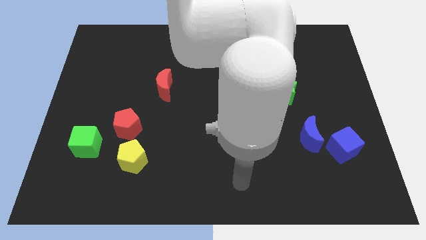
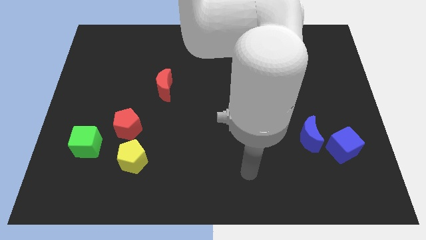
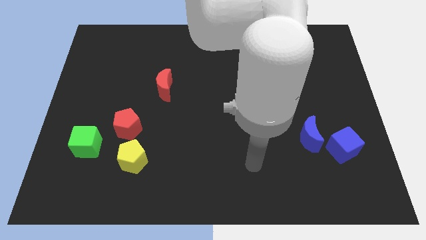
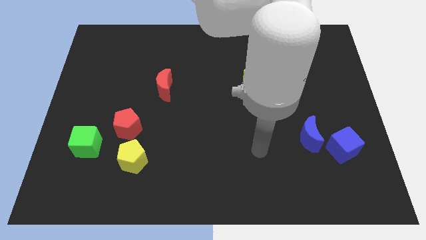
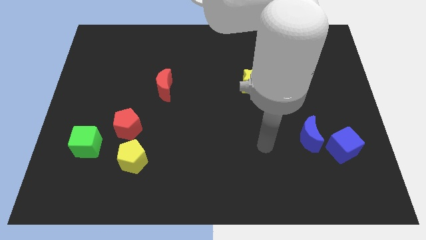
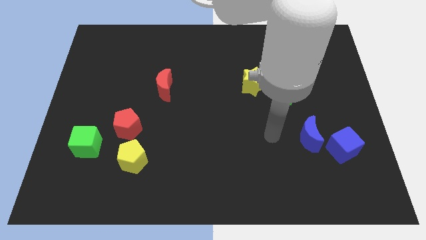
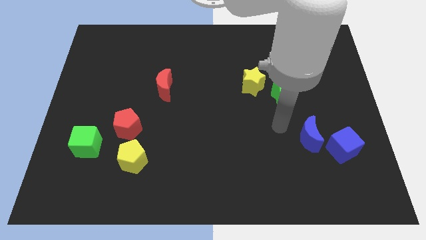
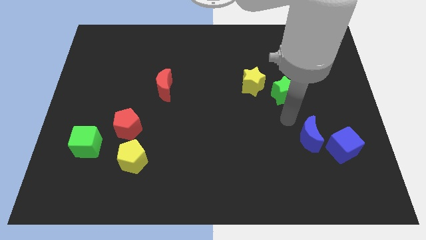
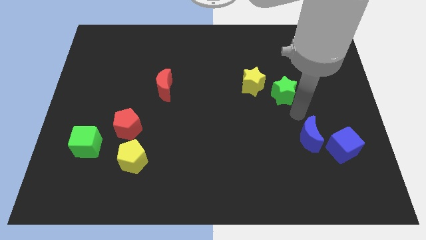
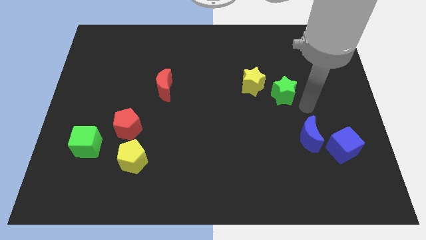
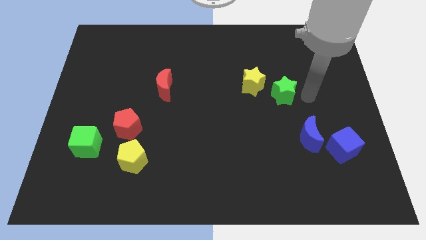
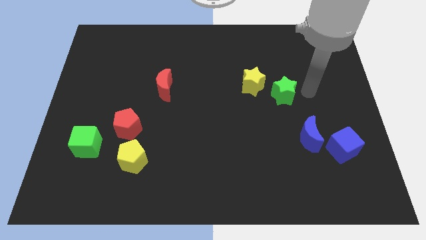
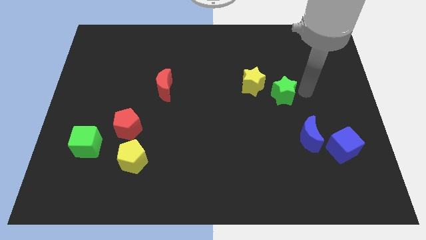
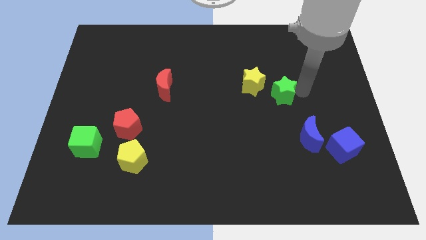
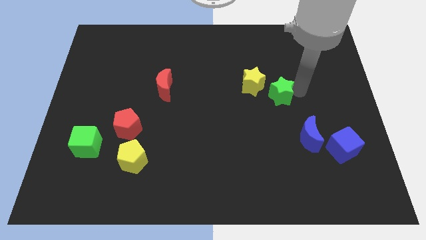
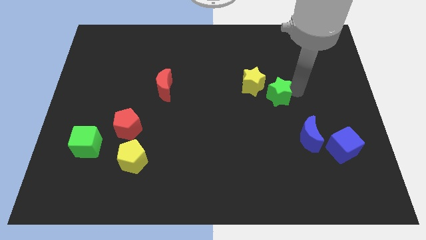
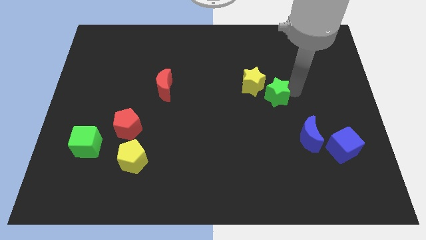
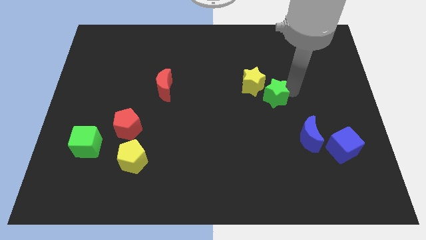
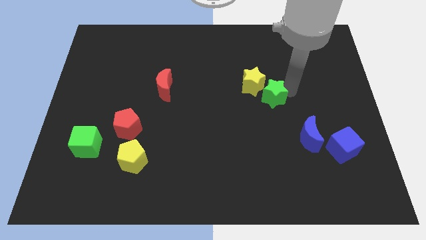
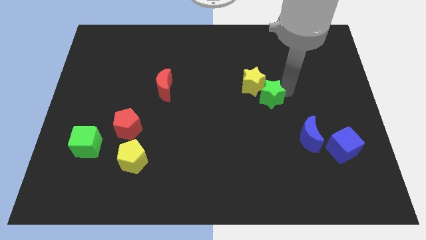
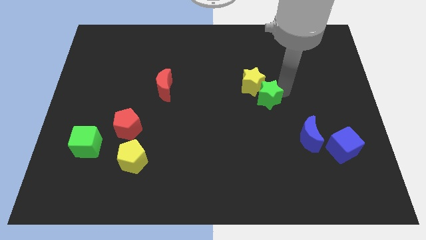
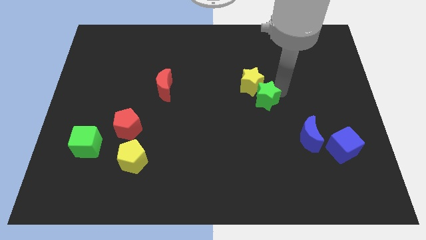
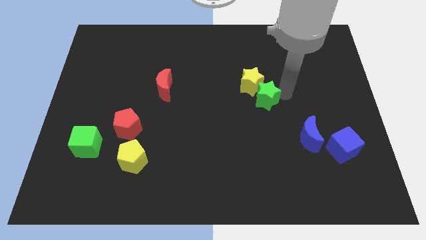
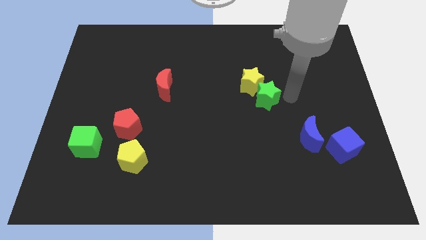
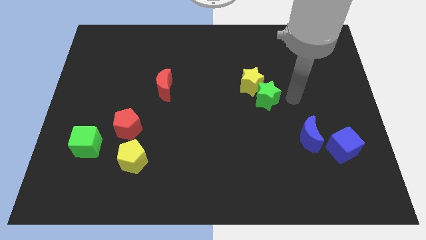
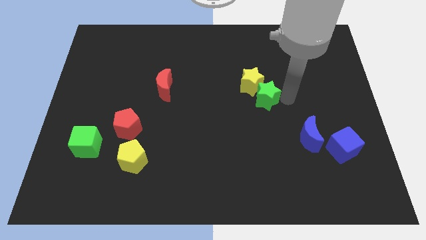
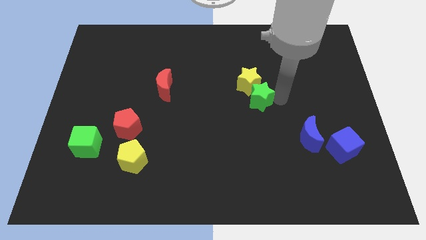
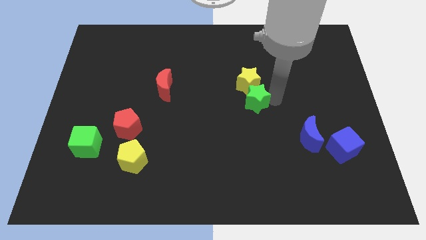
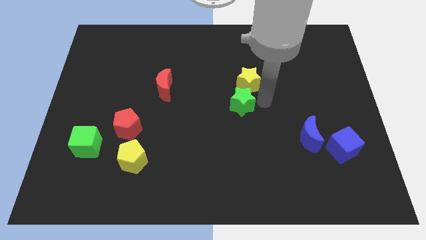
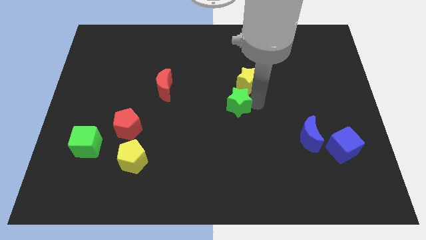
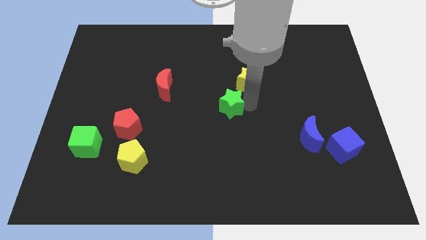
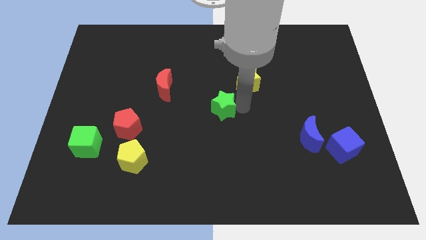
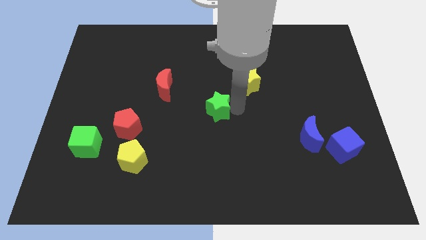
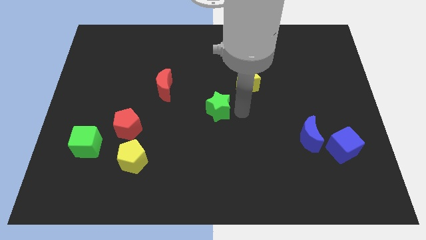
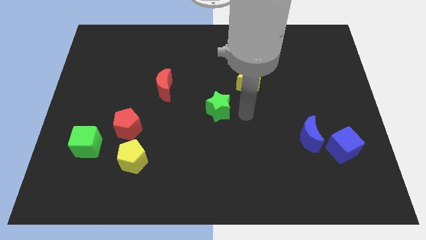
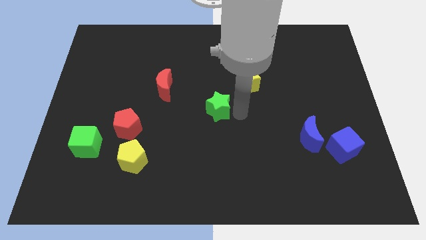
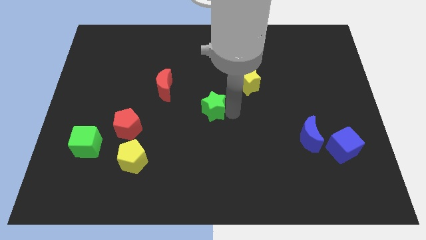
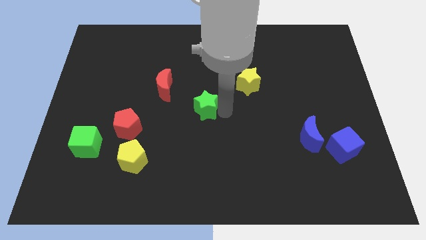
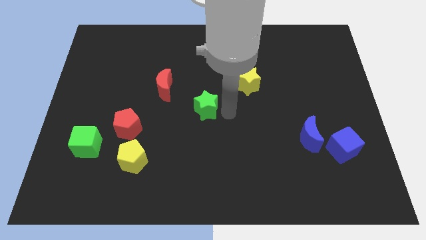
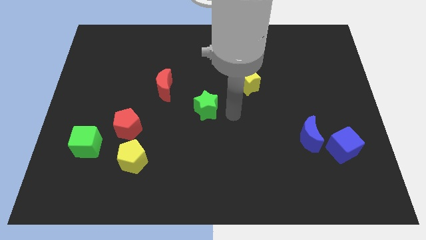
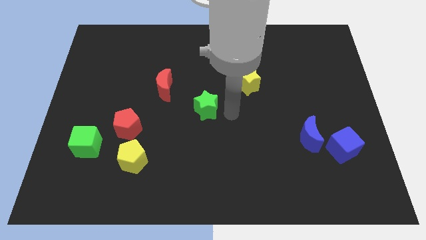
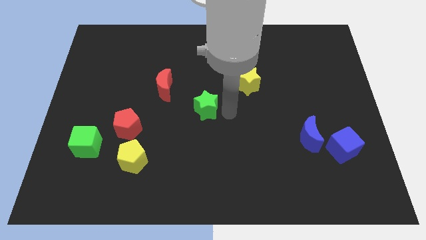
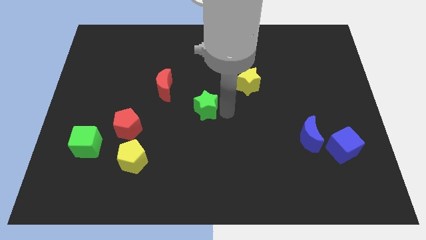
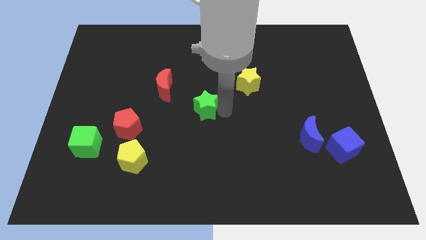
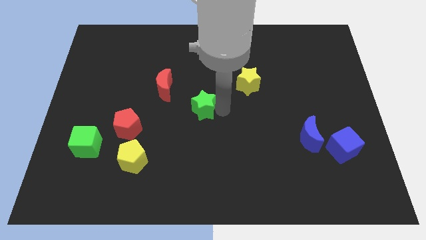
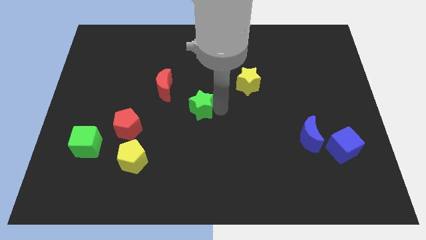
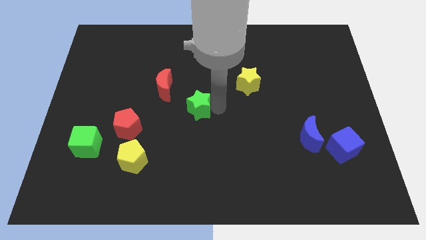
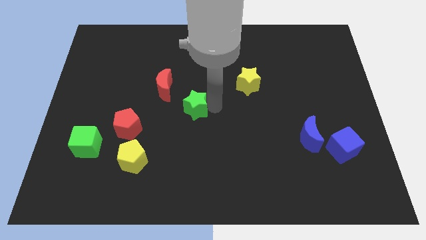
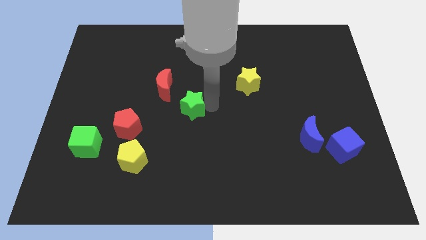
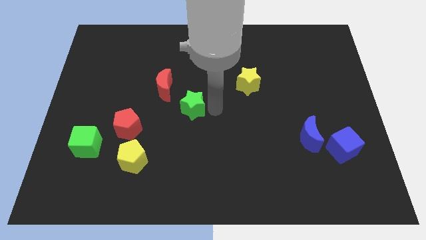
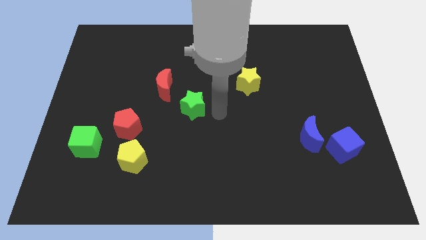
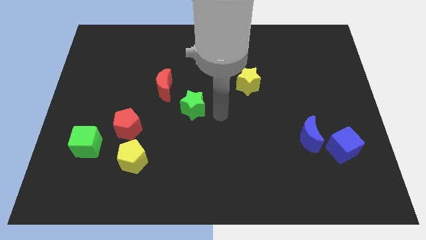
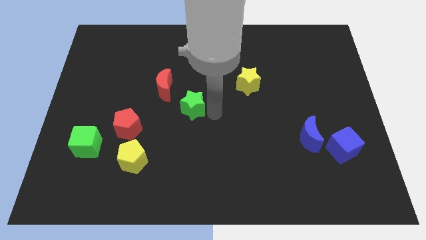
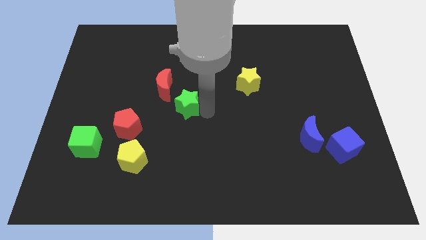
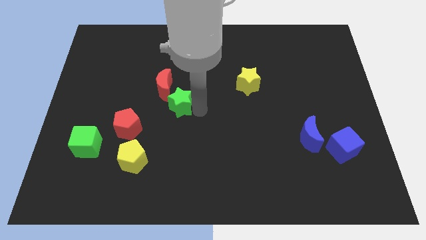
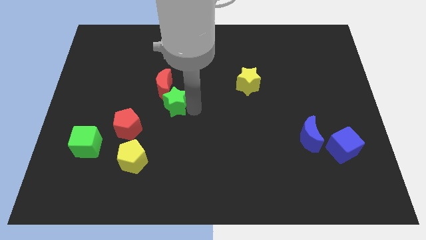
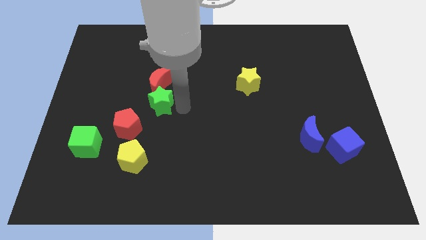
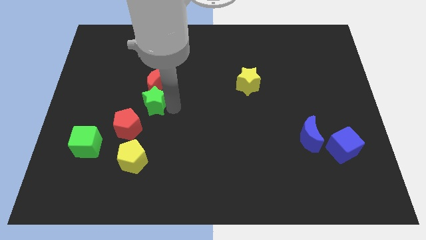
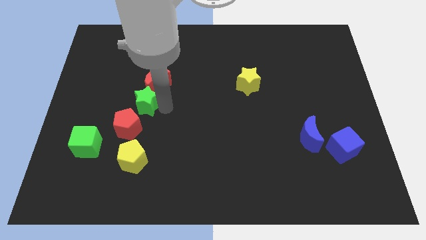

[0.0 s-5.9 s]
put the green star above the red pentagon

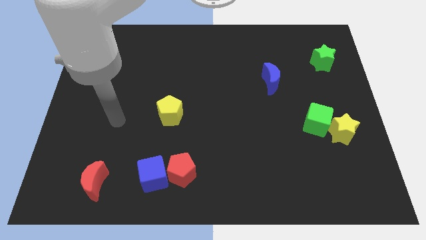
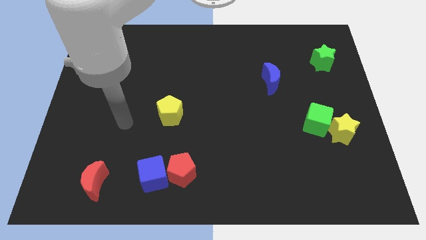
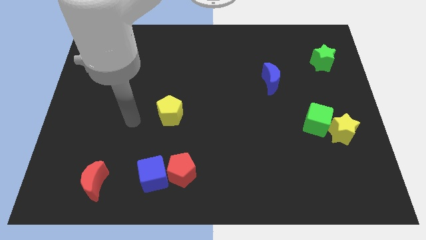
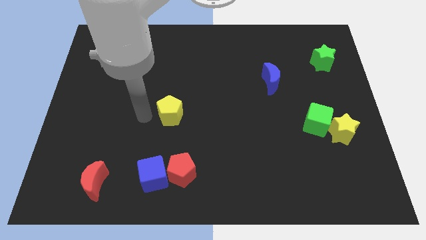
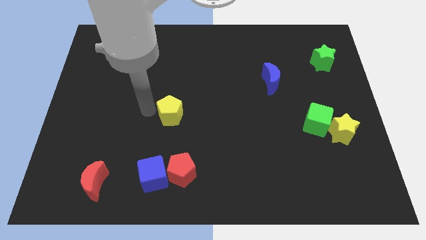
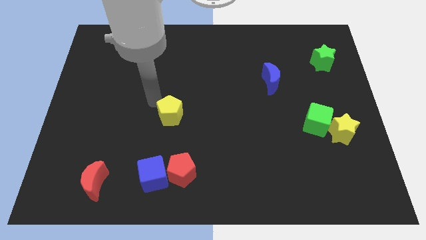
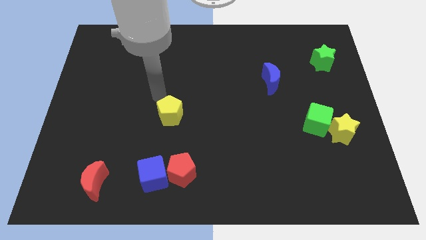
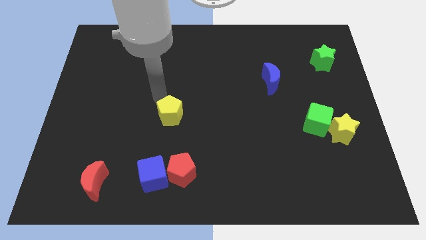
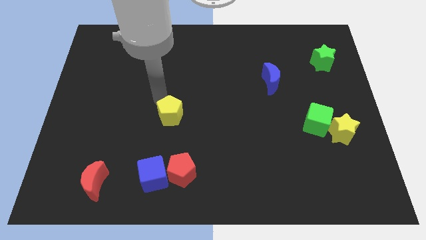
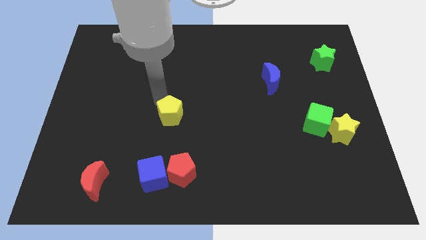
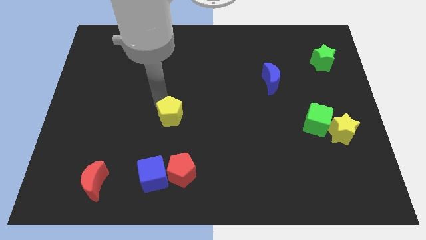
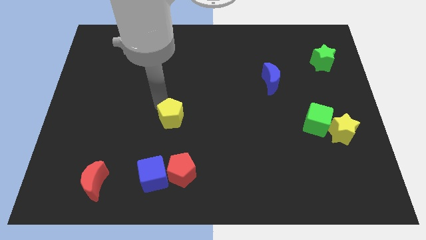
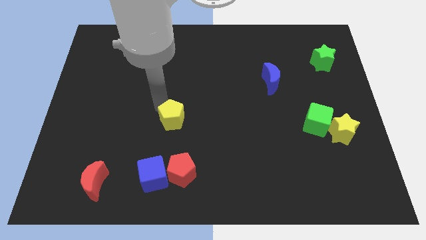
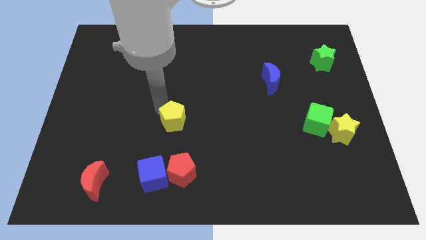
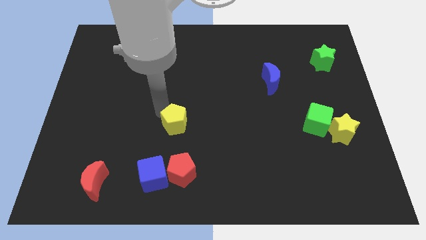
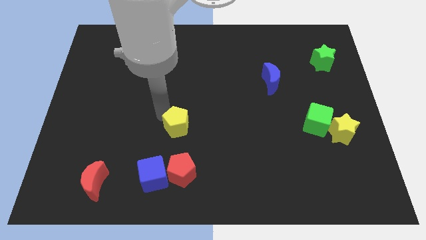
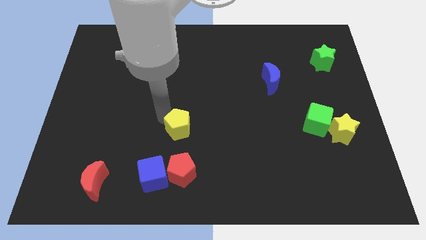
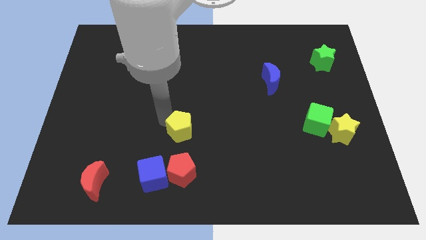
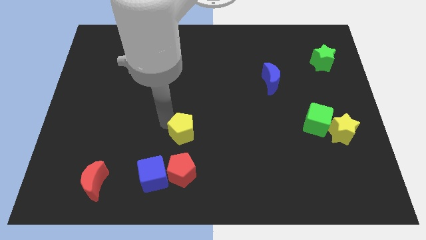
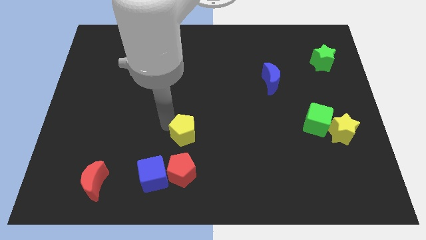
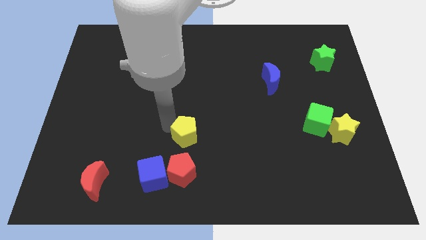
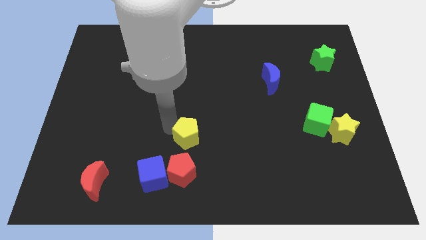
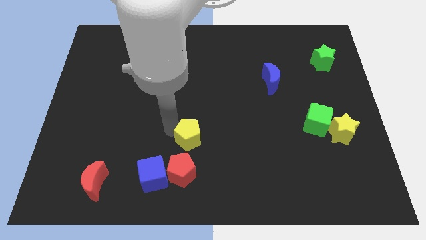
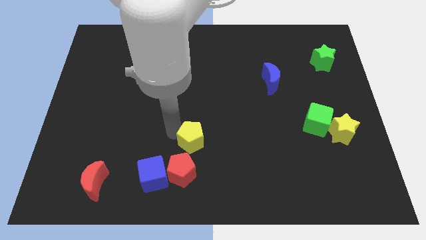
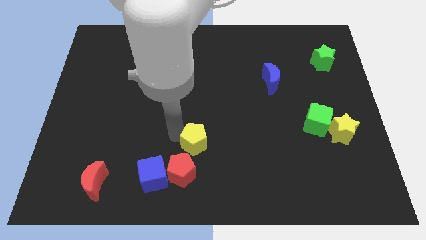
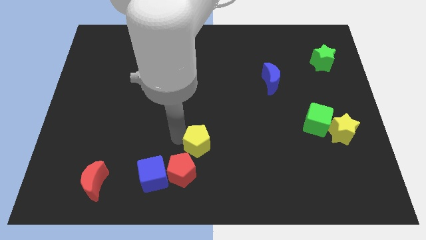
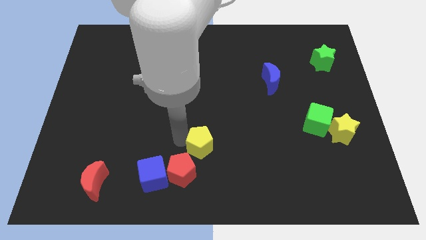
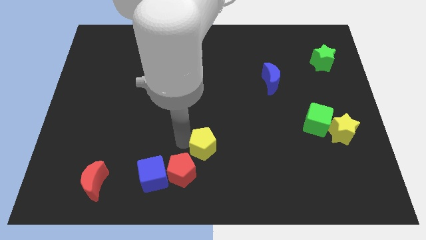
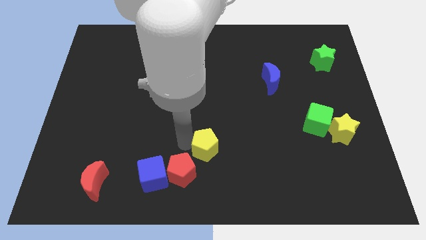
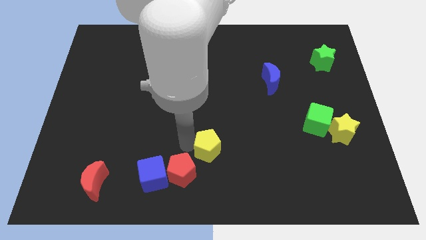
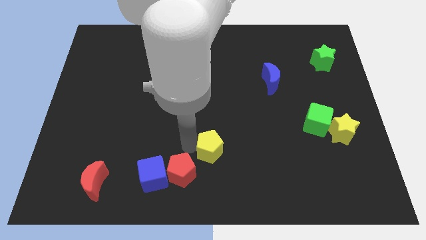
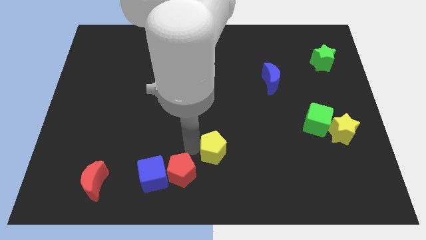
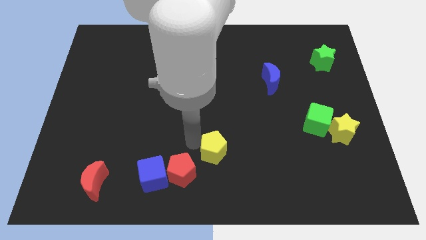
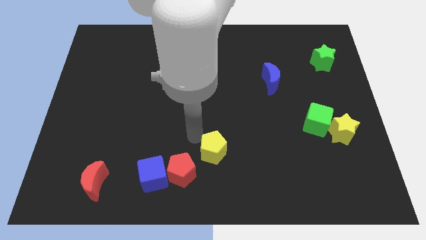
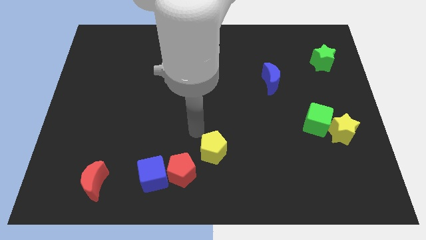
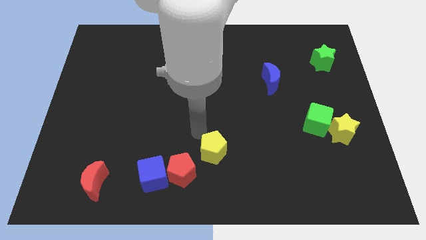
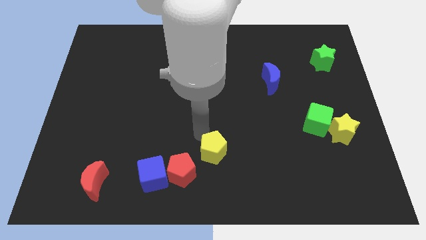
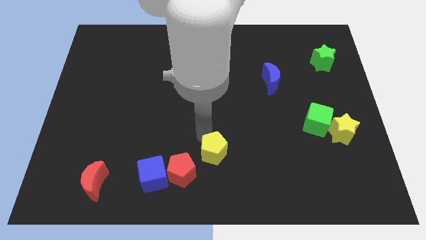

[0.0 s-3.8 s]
move the yellow pentagon right of the red pentagon
